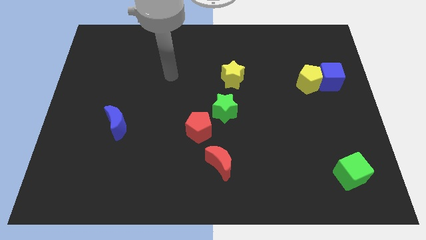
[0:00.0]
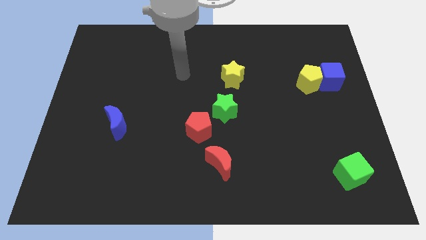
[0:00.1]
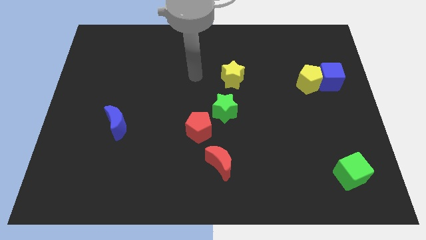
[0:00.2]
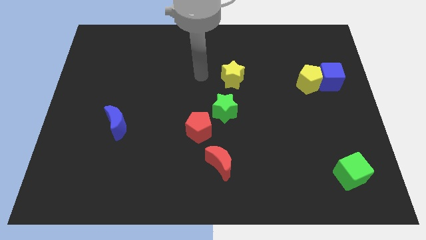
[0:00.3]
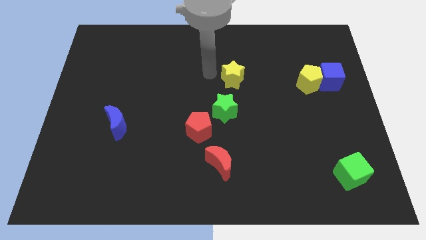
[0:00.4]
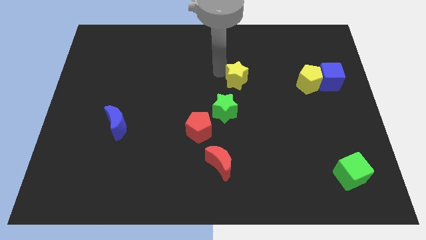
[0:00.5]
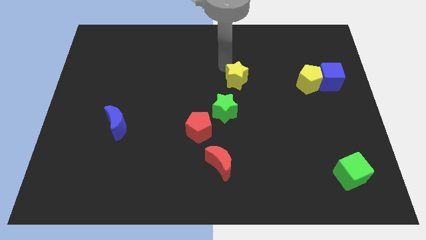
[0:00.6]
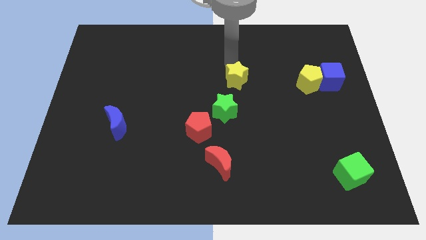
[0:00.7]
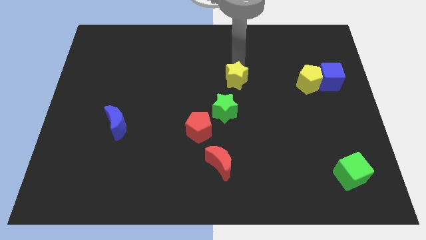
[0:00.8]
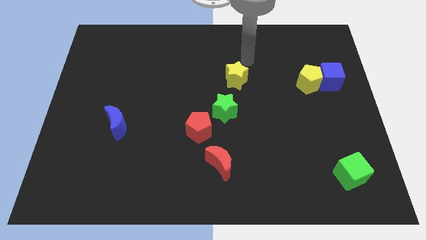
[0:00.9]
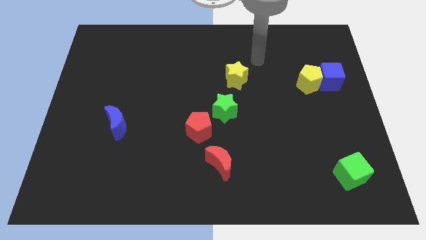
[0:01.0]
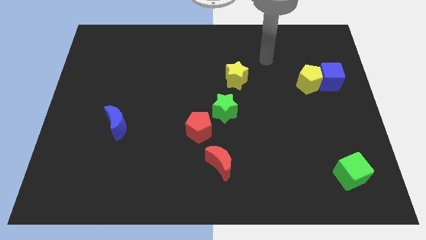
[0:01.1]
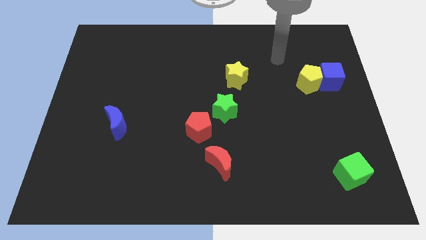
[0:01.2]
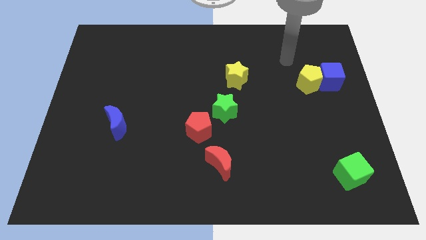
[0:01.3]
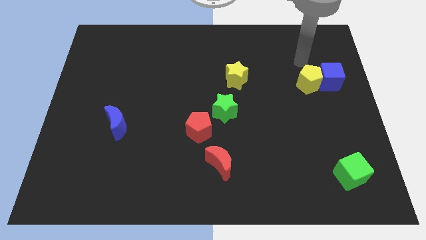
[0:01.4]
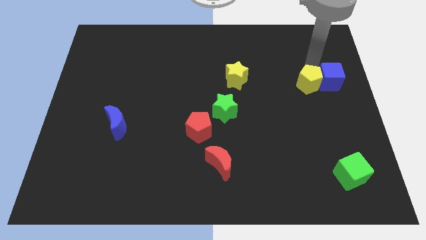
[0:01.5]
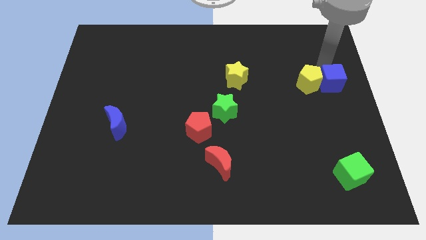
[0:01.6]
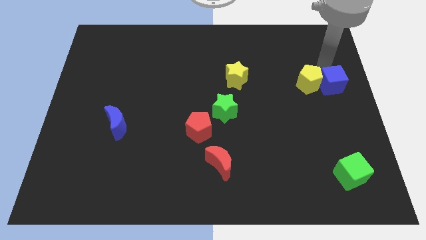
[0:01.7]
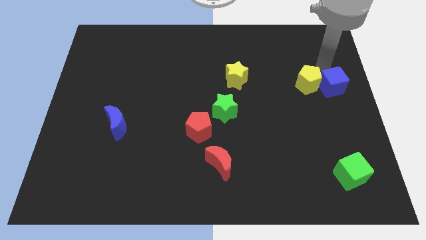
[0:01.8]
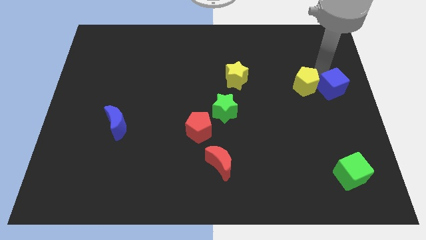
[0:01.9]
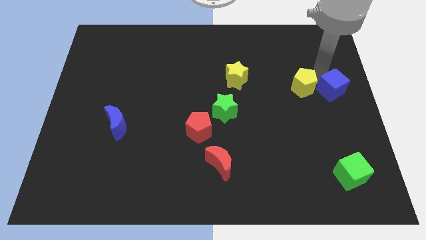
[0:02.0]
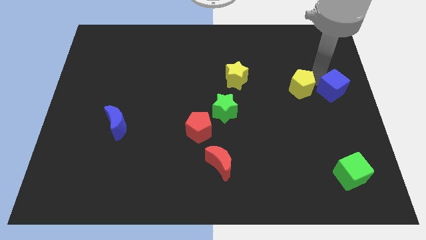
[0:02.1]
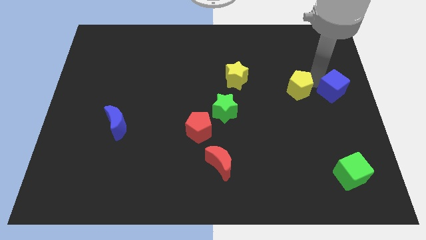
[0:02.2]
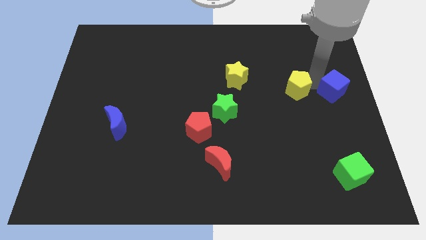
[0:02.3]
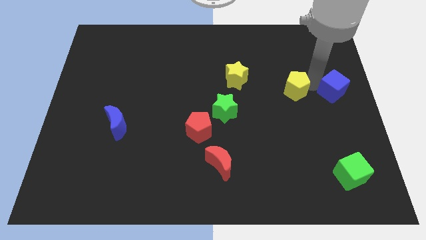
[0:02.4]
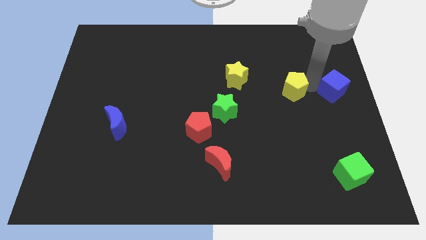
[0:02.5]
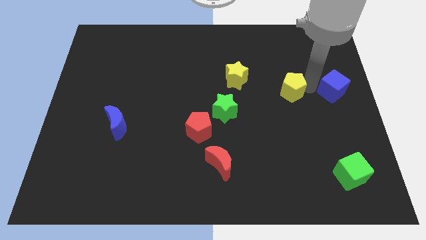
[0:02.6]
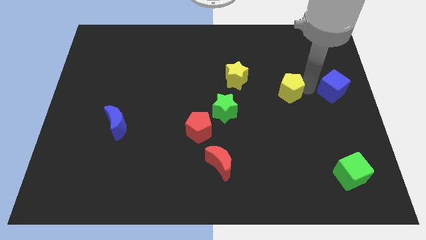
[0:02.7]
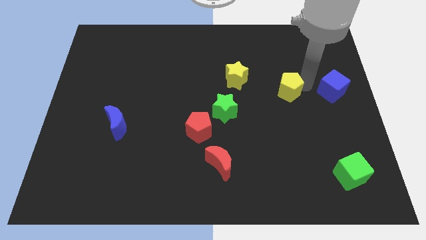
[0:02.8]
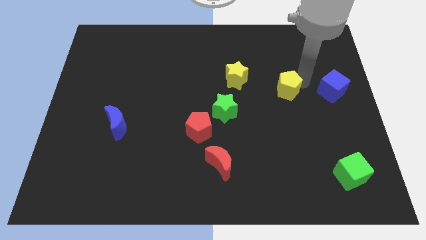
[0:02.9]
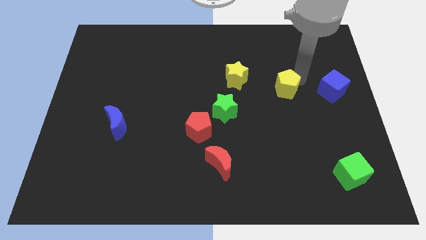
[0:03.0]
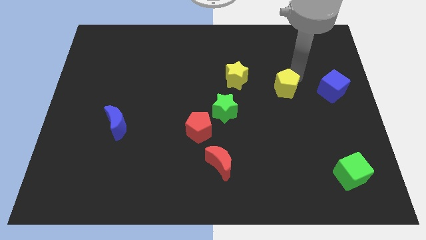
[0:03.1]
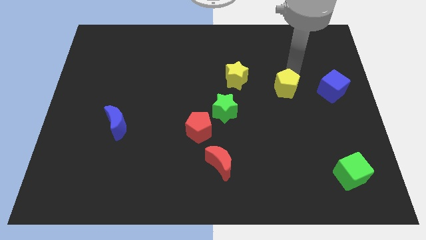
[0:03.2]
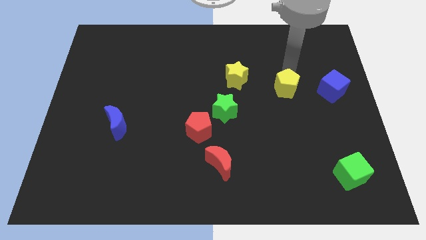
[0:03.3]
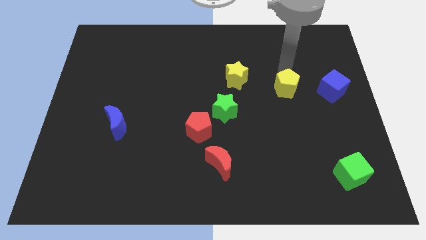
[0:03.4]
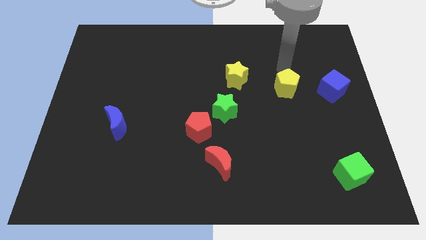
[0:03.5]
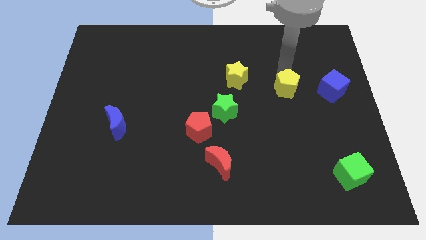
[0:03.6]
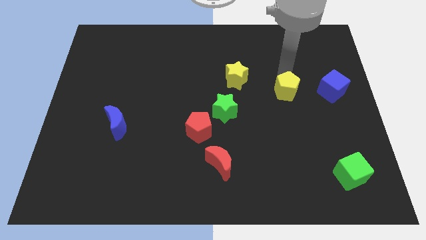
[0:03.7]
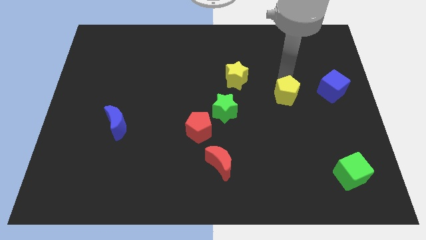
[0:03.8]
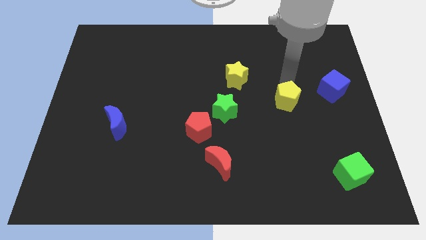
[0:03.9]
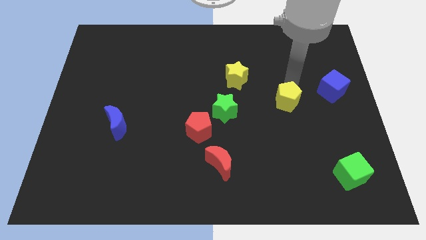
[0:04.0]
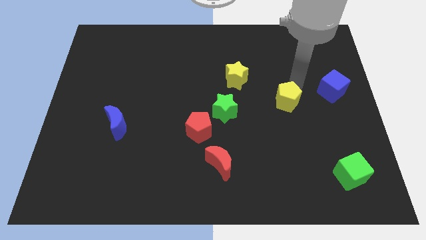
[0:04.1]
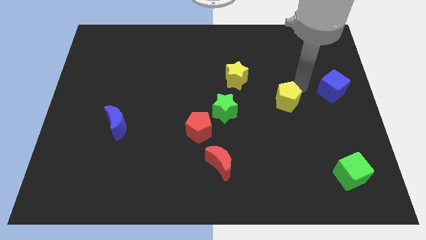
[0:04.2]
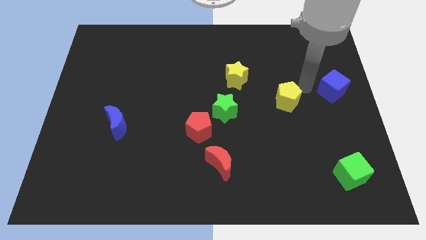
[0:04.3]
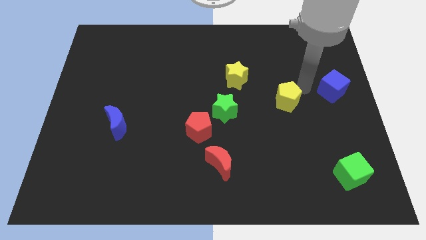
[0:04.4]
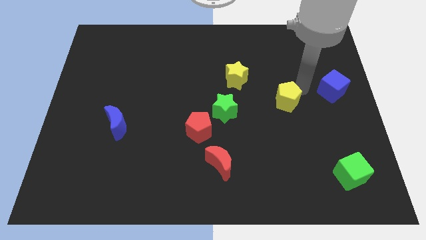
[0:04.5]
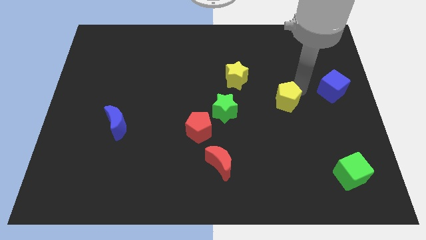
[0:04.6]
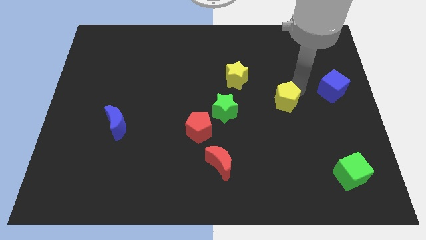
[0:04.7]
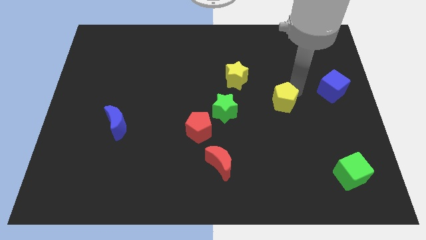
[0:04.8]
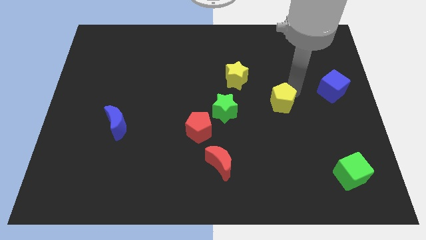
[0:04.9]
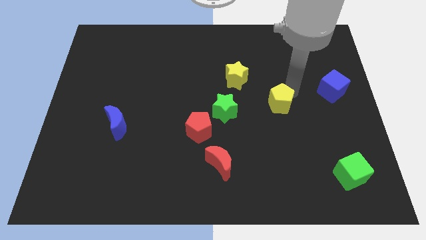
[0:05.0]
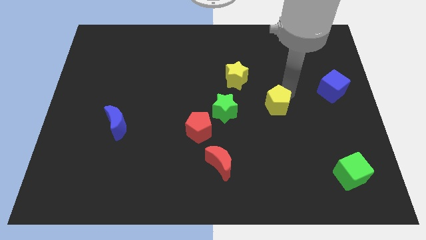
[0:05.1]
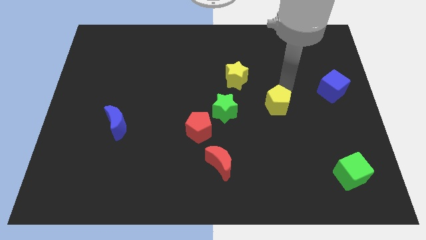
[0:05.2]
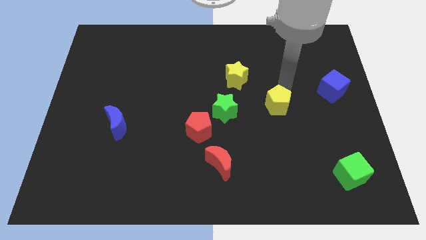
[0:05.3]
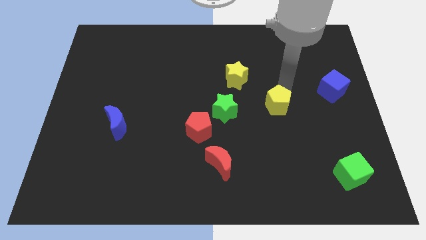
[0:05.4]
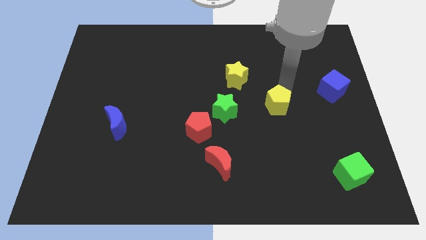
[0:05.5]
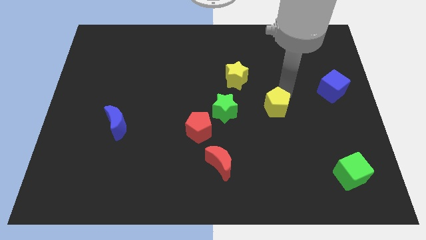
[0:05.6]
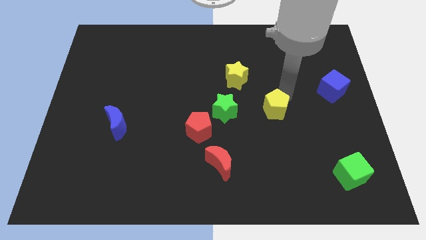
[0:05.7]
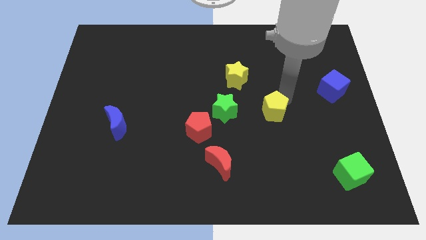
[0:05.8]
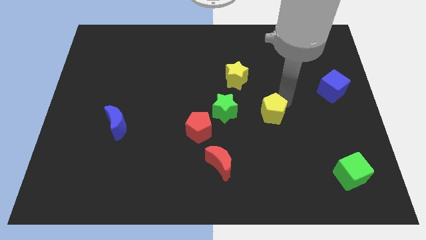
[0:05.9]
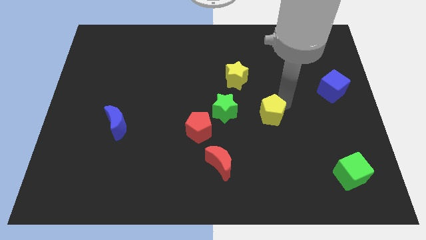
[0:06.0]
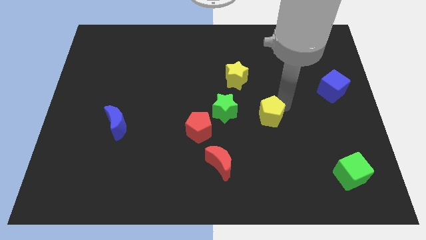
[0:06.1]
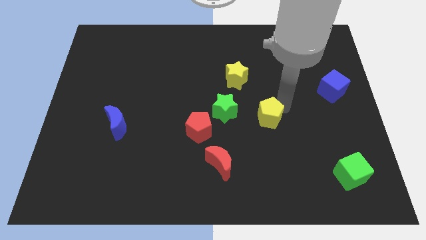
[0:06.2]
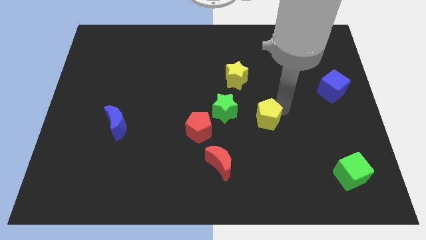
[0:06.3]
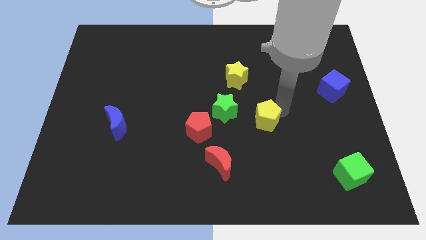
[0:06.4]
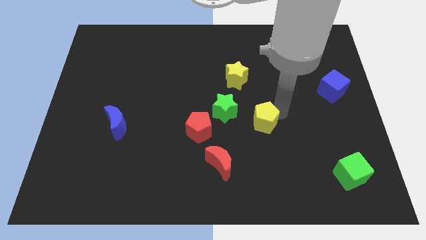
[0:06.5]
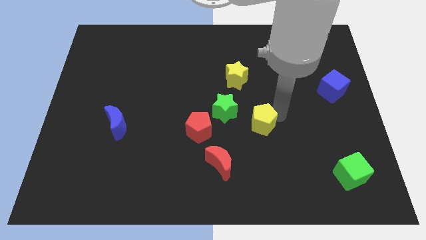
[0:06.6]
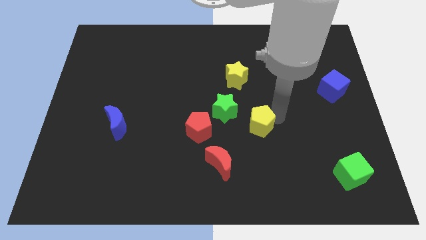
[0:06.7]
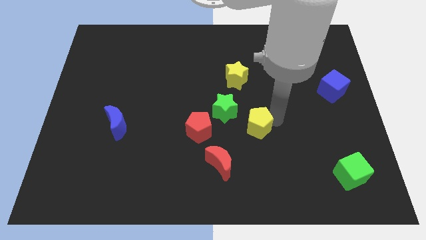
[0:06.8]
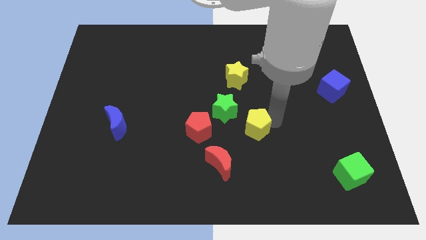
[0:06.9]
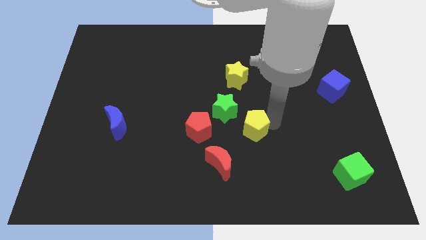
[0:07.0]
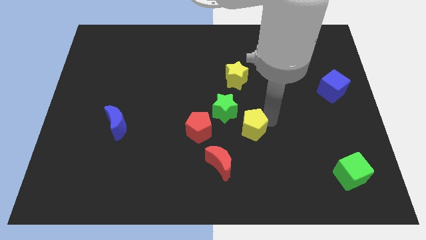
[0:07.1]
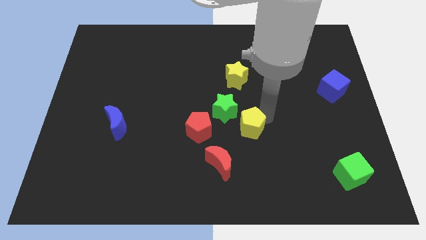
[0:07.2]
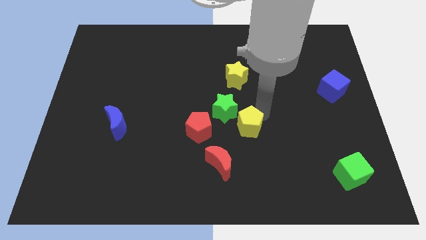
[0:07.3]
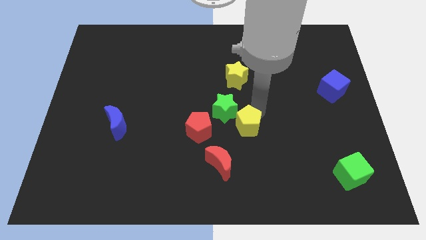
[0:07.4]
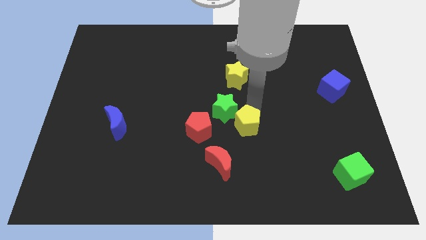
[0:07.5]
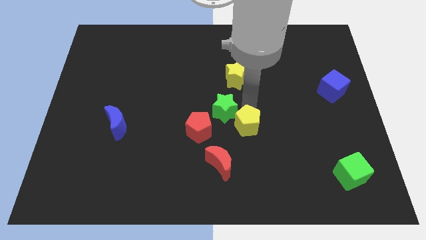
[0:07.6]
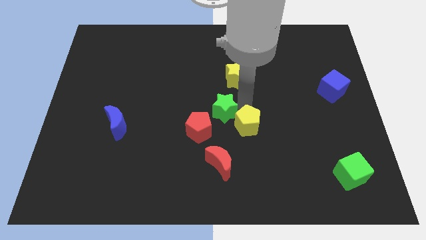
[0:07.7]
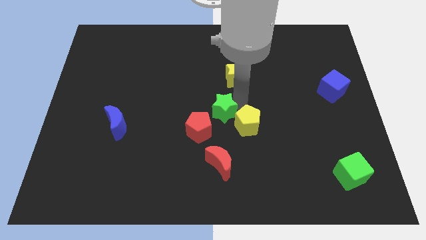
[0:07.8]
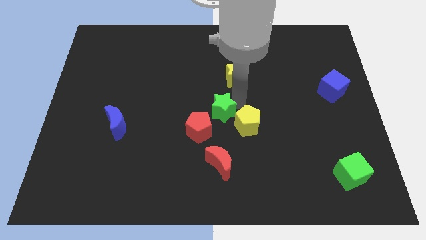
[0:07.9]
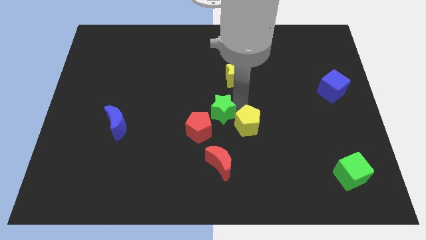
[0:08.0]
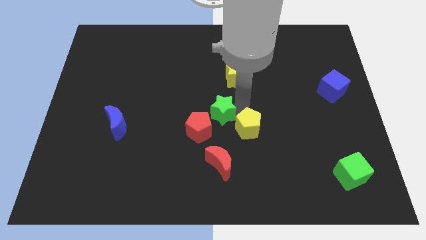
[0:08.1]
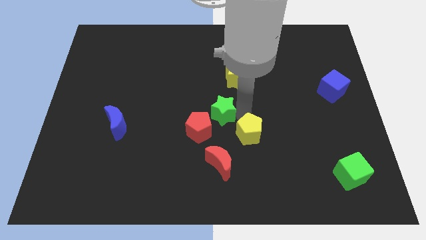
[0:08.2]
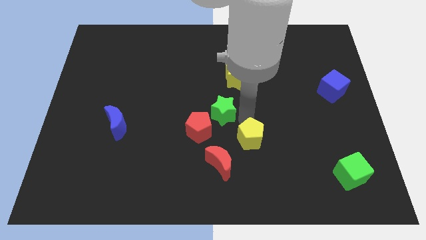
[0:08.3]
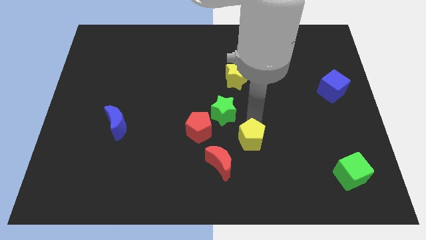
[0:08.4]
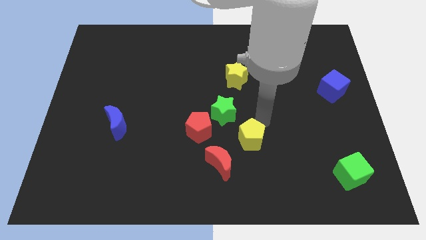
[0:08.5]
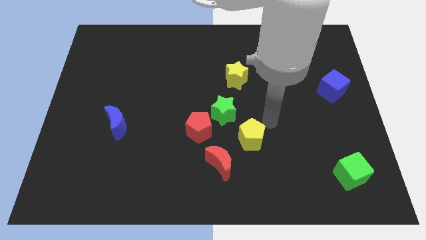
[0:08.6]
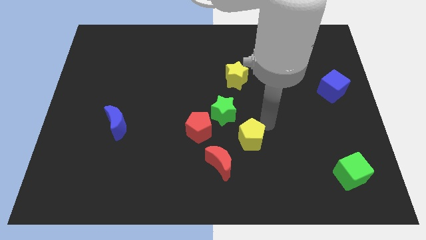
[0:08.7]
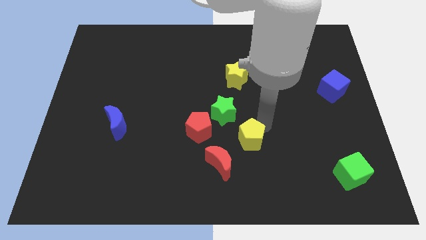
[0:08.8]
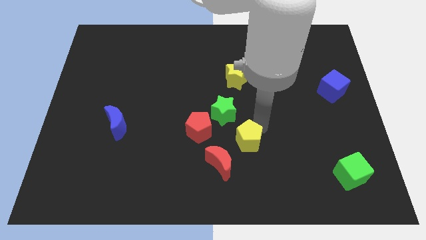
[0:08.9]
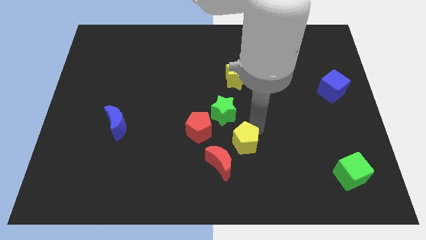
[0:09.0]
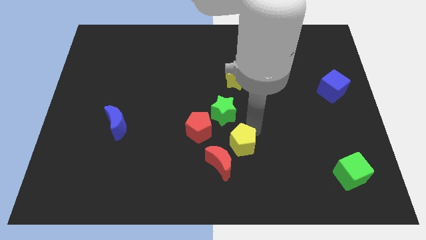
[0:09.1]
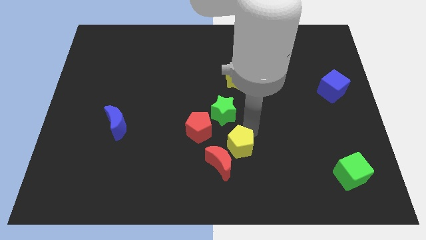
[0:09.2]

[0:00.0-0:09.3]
slide the yellow pentagon close to the red moon
